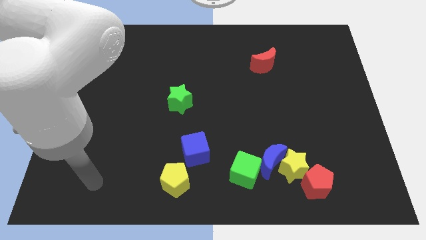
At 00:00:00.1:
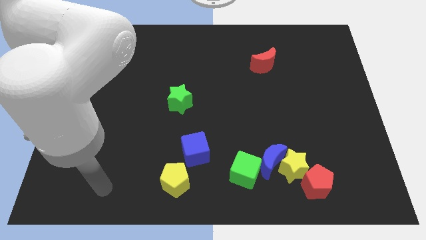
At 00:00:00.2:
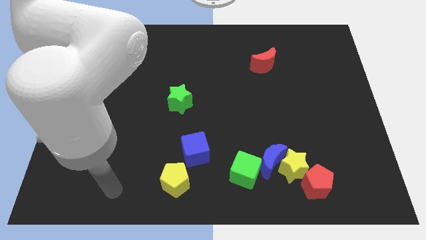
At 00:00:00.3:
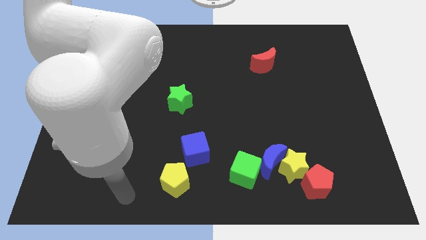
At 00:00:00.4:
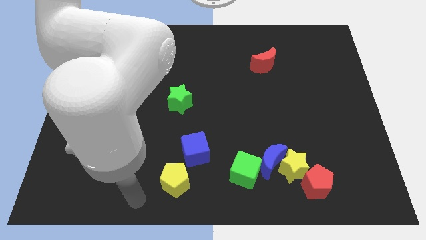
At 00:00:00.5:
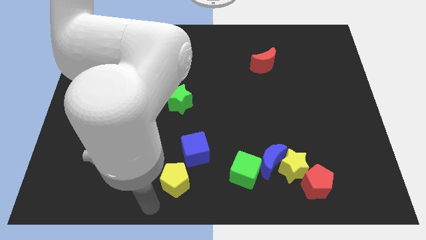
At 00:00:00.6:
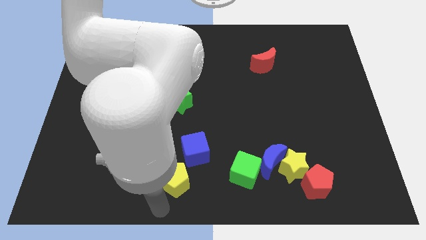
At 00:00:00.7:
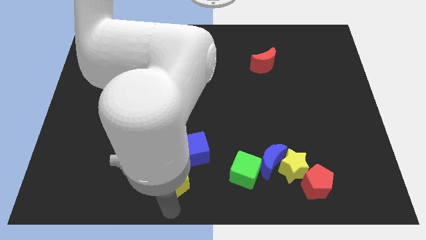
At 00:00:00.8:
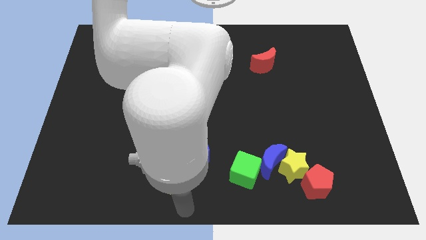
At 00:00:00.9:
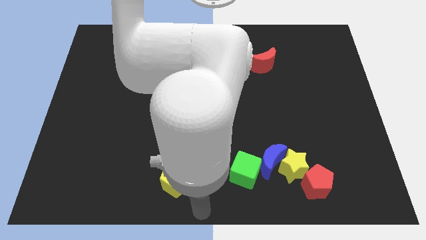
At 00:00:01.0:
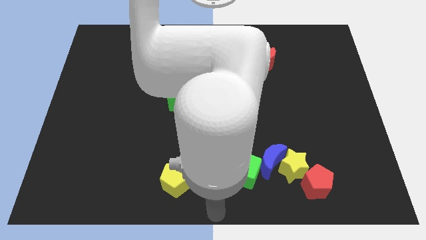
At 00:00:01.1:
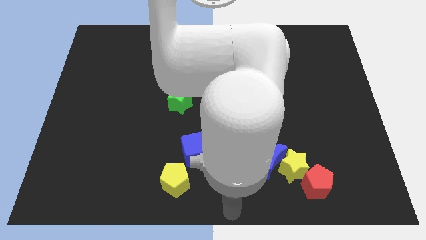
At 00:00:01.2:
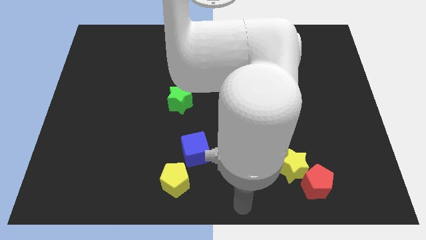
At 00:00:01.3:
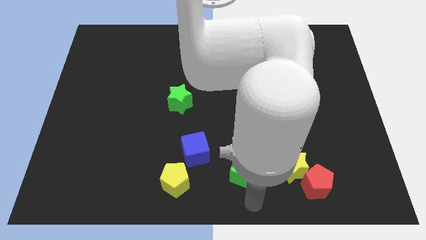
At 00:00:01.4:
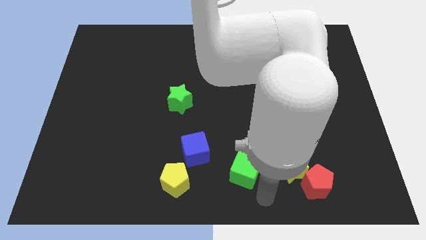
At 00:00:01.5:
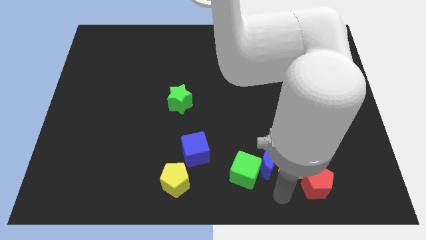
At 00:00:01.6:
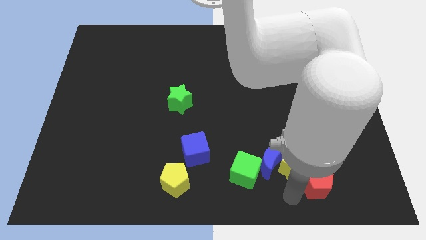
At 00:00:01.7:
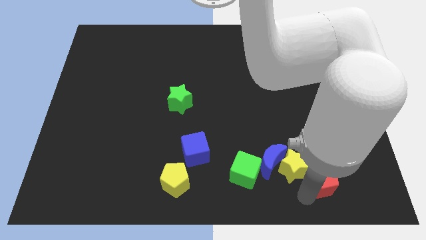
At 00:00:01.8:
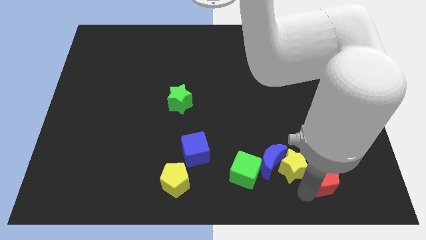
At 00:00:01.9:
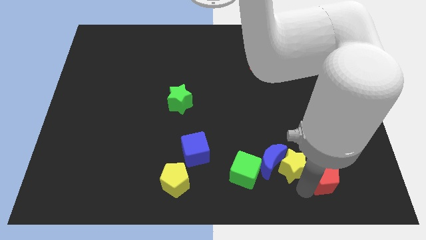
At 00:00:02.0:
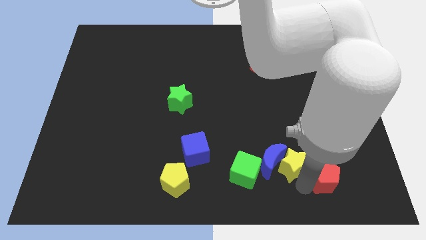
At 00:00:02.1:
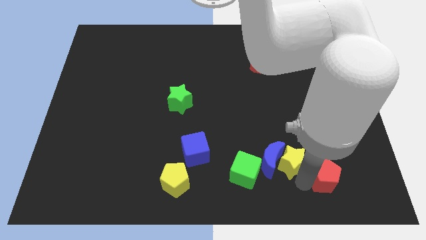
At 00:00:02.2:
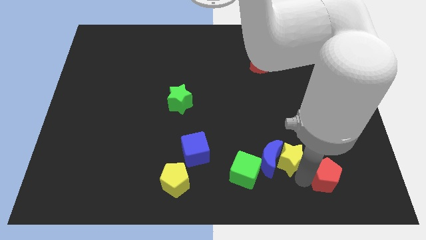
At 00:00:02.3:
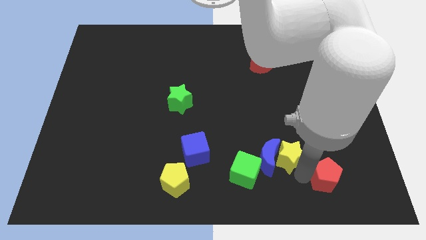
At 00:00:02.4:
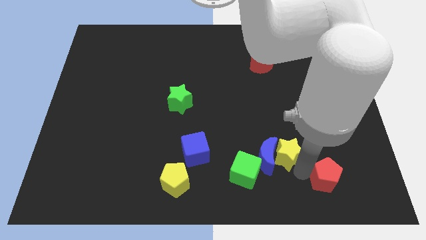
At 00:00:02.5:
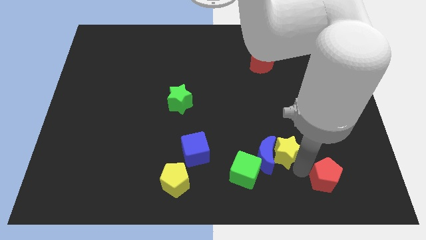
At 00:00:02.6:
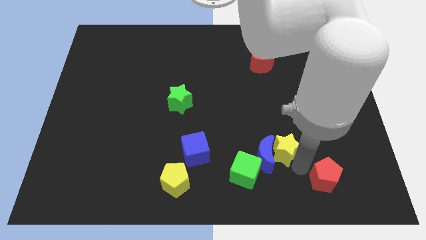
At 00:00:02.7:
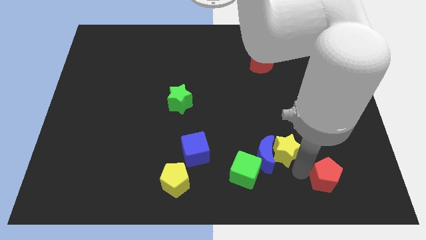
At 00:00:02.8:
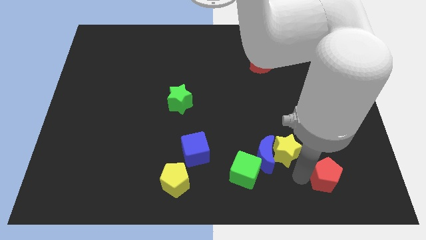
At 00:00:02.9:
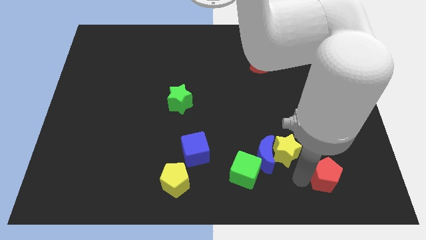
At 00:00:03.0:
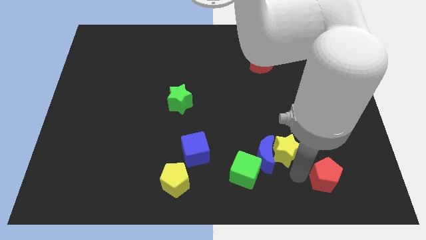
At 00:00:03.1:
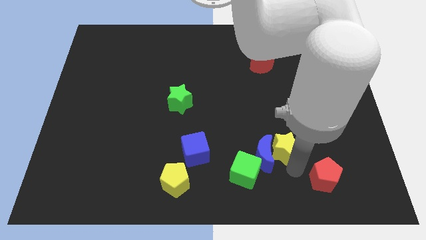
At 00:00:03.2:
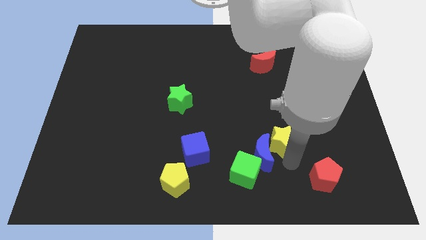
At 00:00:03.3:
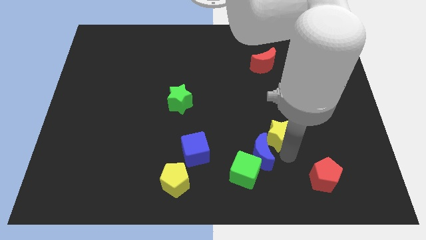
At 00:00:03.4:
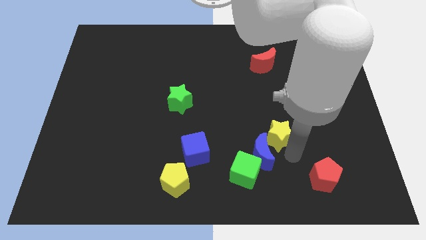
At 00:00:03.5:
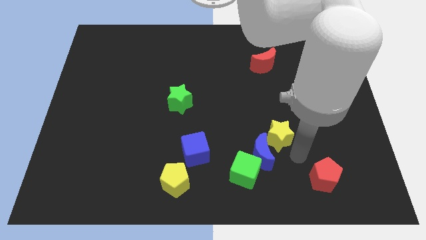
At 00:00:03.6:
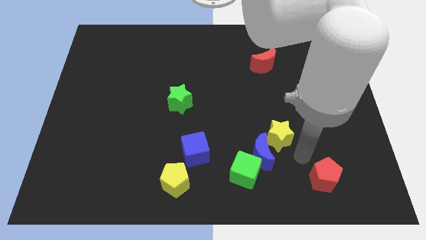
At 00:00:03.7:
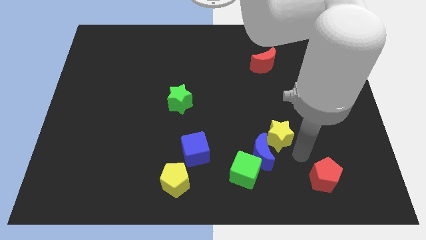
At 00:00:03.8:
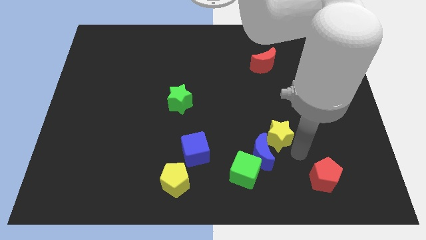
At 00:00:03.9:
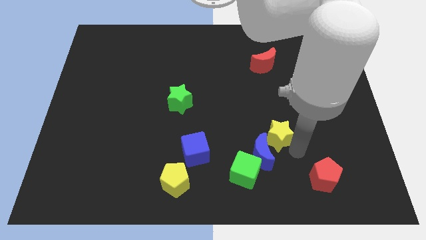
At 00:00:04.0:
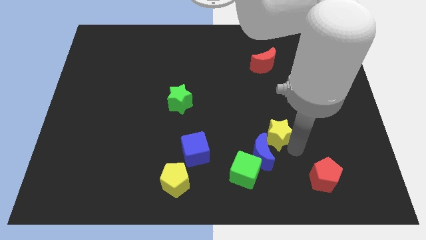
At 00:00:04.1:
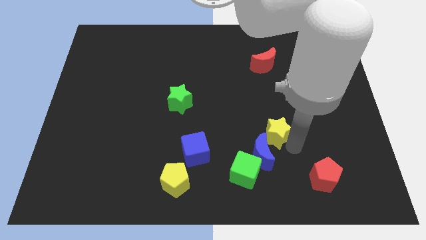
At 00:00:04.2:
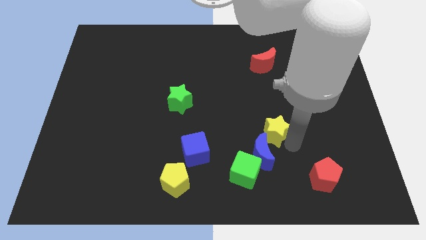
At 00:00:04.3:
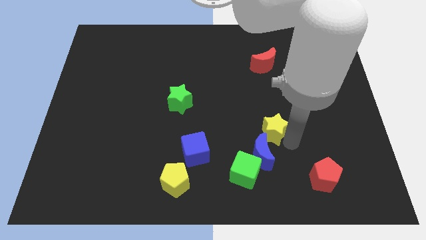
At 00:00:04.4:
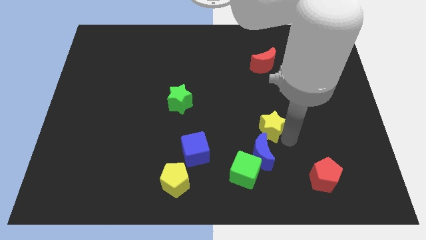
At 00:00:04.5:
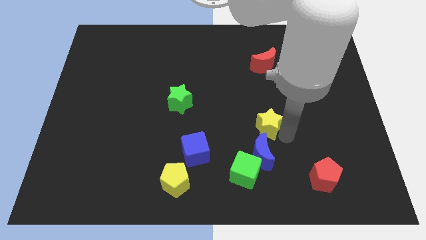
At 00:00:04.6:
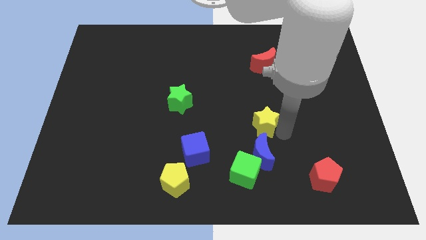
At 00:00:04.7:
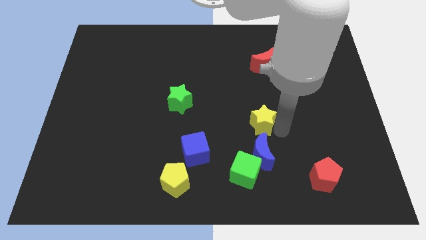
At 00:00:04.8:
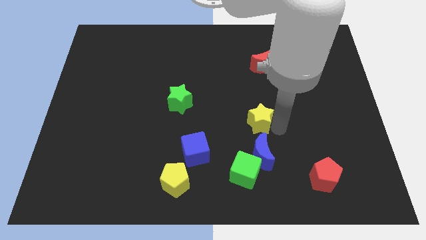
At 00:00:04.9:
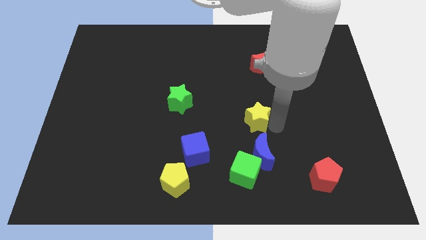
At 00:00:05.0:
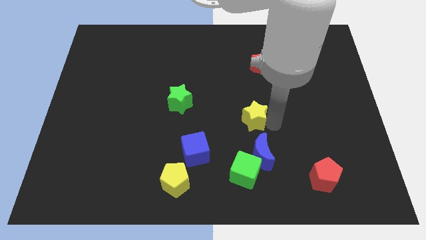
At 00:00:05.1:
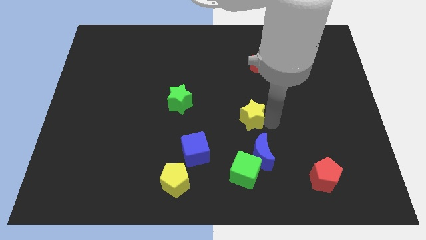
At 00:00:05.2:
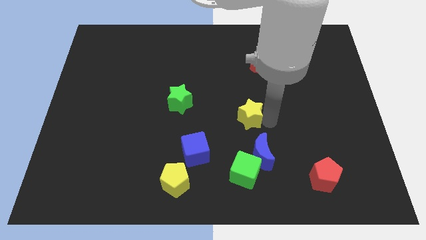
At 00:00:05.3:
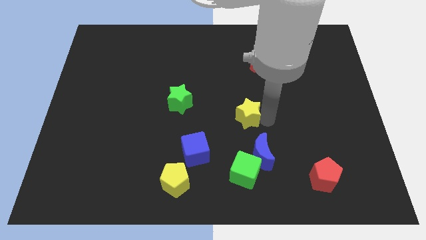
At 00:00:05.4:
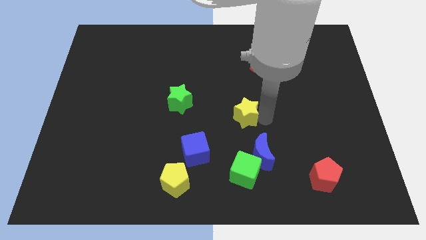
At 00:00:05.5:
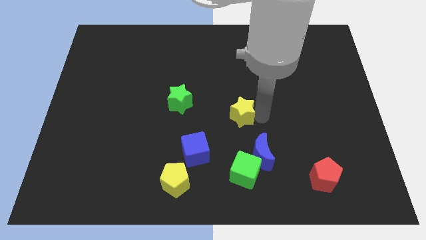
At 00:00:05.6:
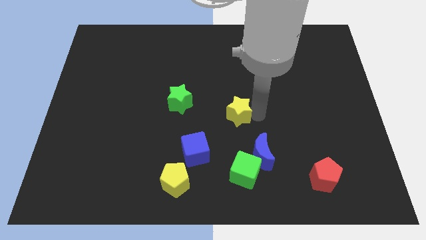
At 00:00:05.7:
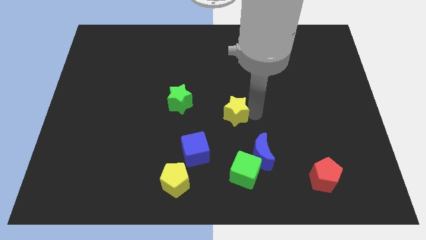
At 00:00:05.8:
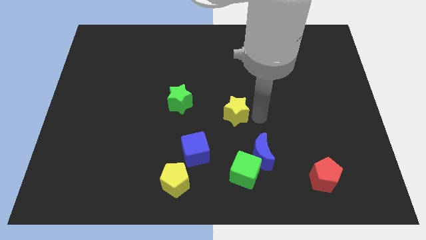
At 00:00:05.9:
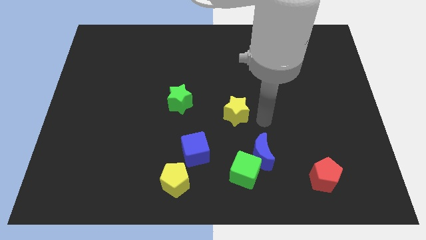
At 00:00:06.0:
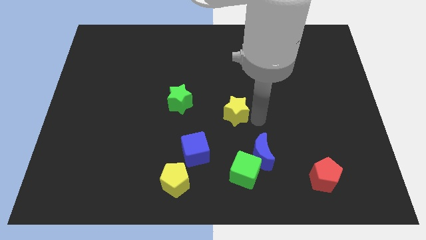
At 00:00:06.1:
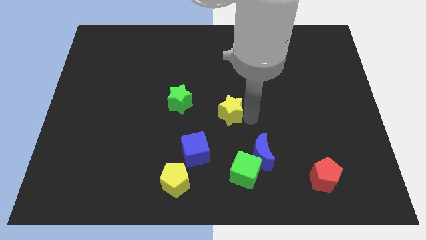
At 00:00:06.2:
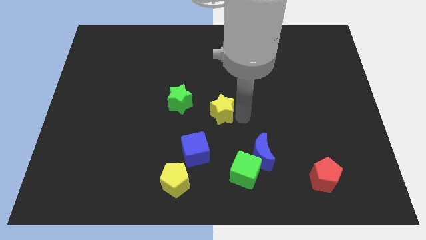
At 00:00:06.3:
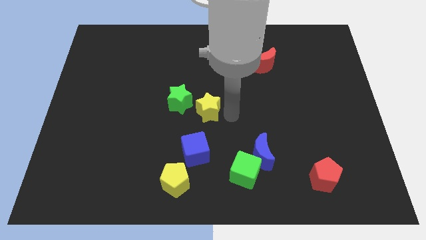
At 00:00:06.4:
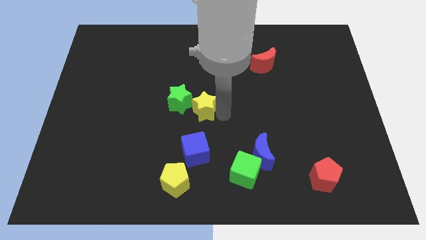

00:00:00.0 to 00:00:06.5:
put the yellow star towards the green star

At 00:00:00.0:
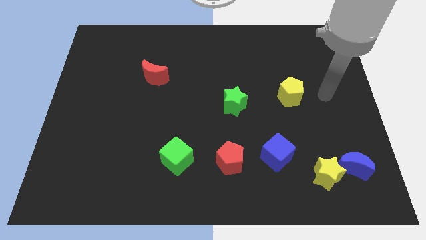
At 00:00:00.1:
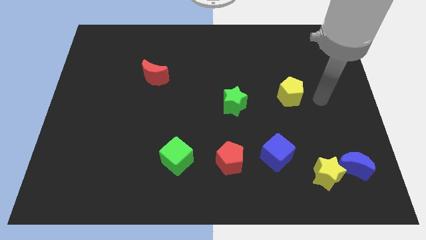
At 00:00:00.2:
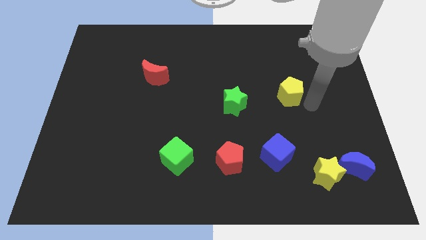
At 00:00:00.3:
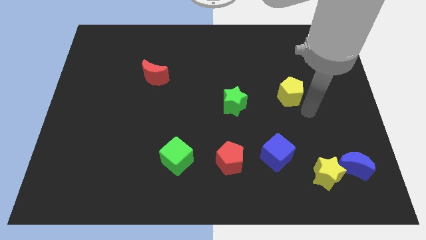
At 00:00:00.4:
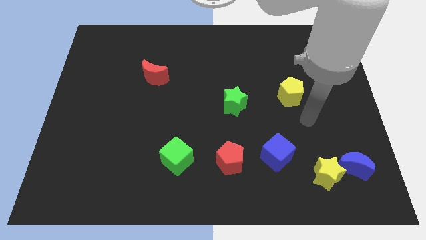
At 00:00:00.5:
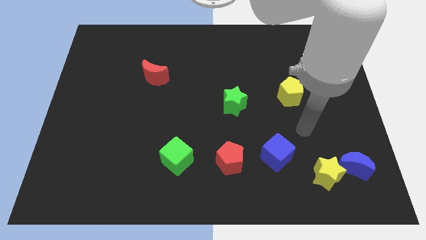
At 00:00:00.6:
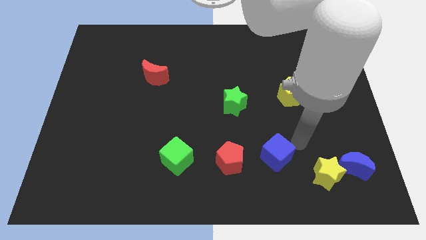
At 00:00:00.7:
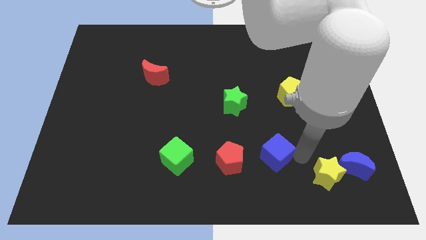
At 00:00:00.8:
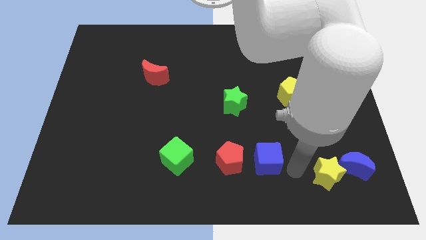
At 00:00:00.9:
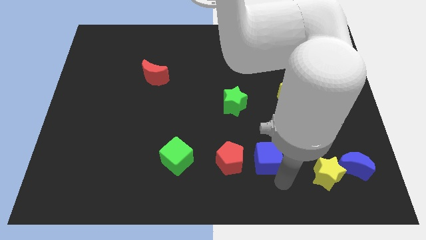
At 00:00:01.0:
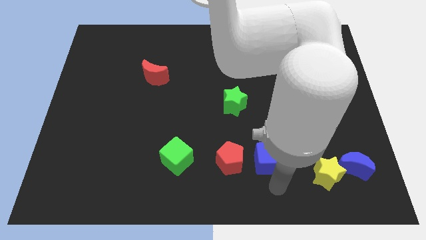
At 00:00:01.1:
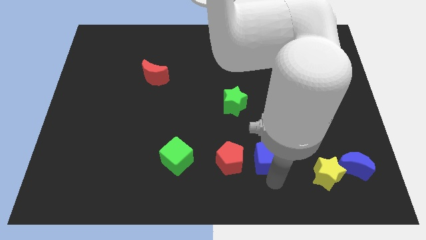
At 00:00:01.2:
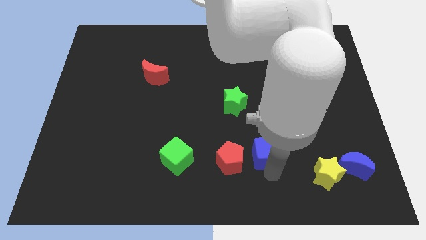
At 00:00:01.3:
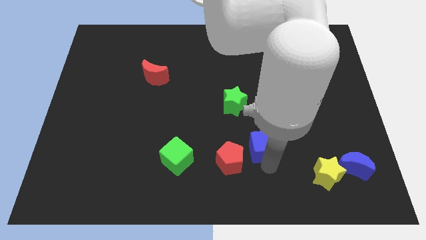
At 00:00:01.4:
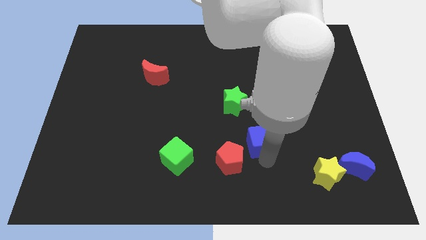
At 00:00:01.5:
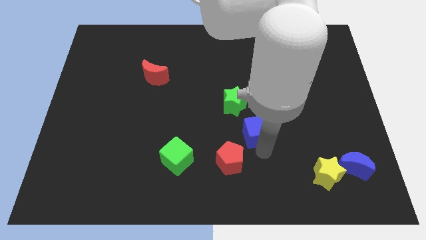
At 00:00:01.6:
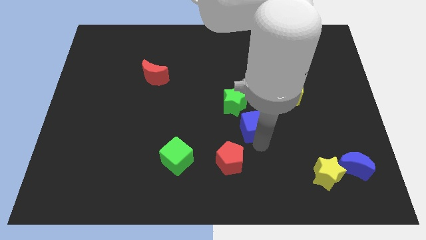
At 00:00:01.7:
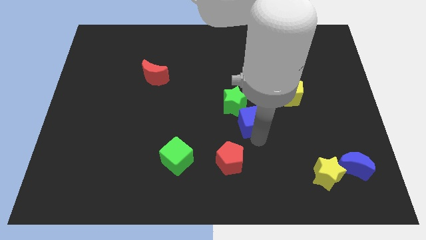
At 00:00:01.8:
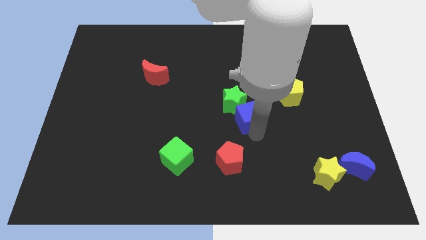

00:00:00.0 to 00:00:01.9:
push the blue cube close to the green star
